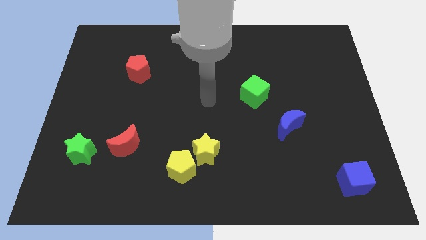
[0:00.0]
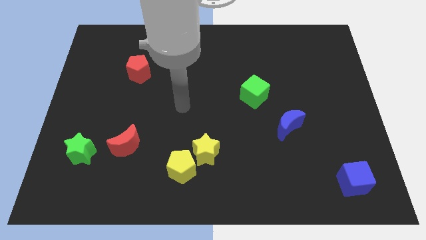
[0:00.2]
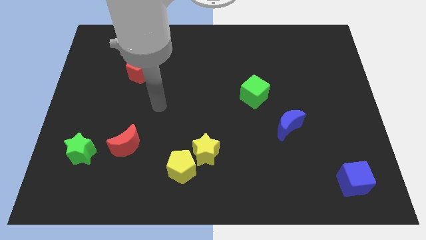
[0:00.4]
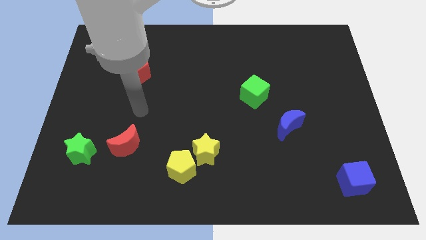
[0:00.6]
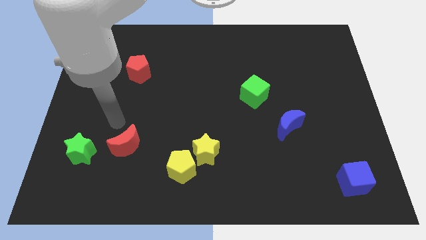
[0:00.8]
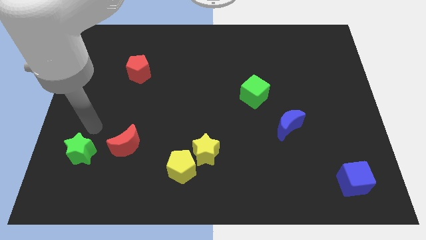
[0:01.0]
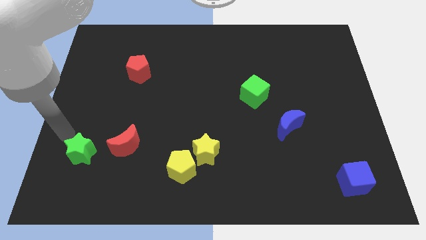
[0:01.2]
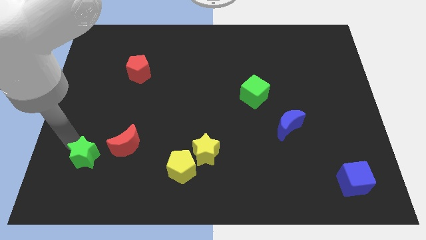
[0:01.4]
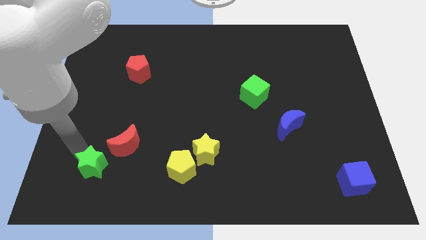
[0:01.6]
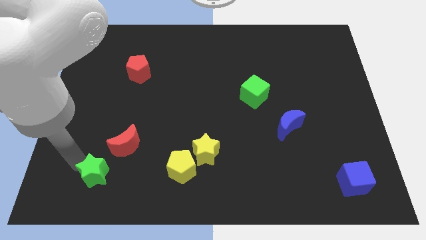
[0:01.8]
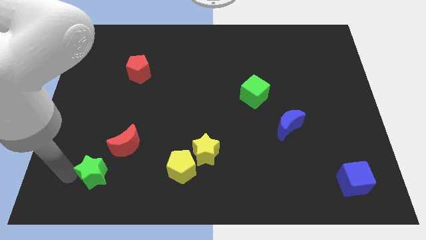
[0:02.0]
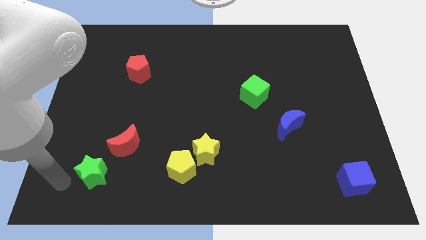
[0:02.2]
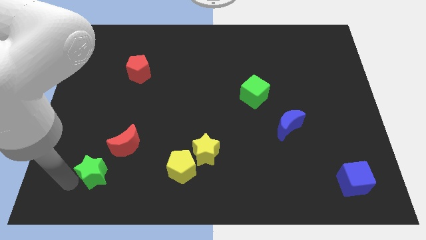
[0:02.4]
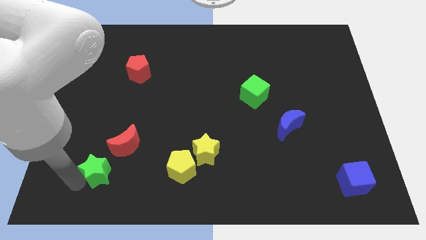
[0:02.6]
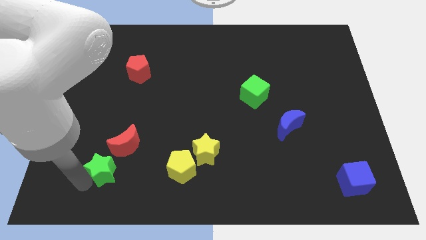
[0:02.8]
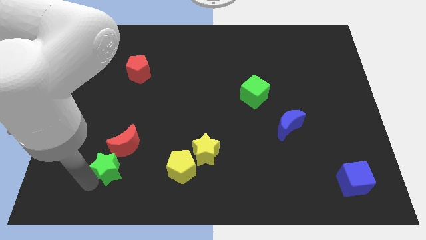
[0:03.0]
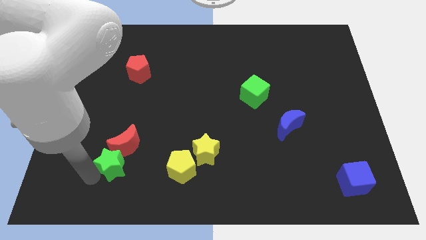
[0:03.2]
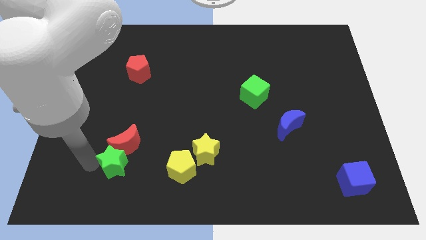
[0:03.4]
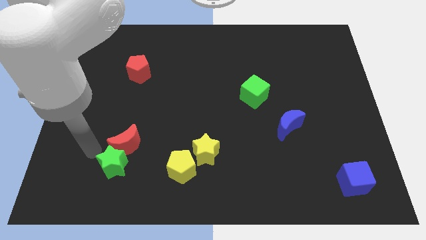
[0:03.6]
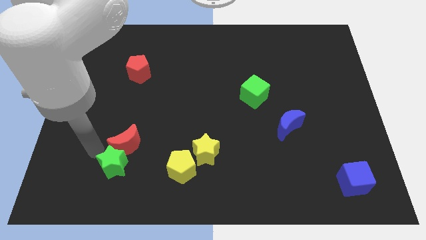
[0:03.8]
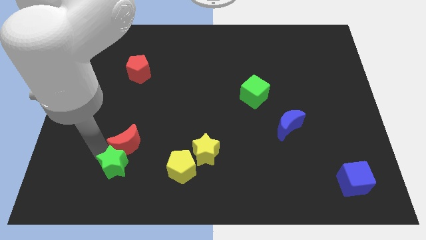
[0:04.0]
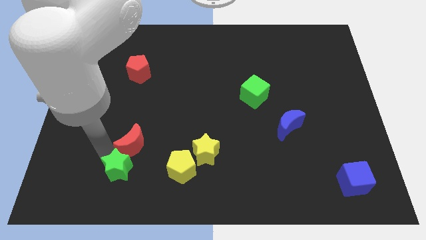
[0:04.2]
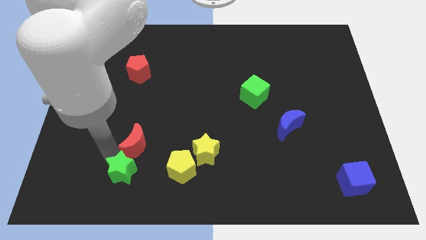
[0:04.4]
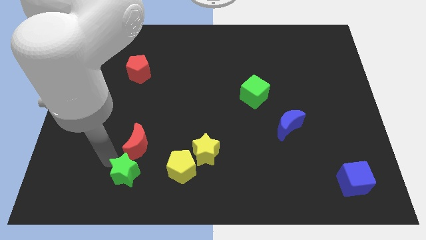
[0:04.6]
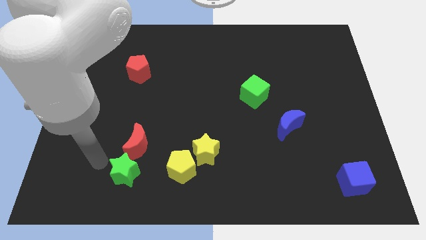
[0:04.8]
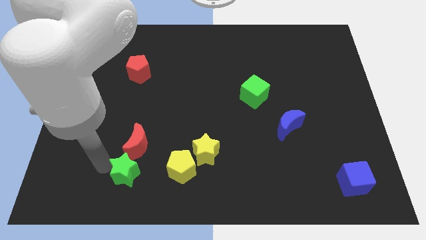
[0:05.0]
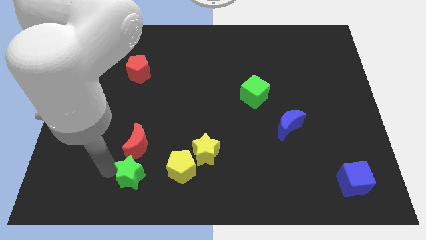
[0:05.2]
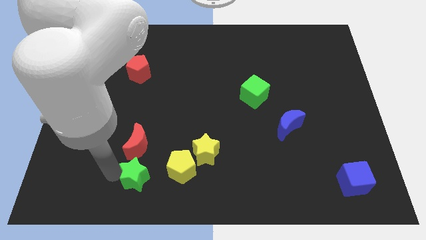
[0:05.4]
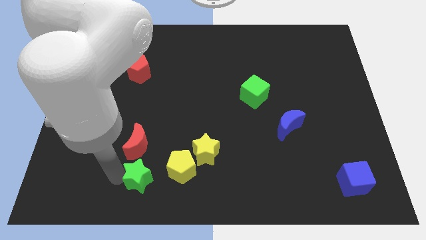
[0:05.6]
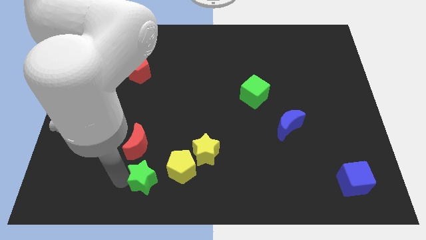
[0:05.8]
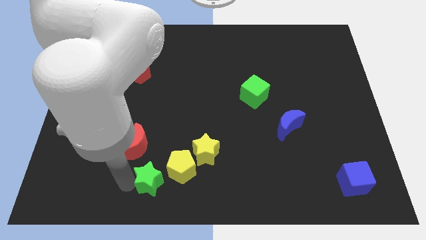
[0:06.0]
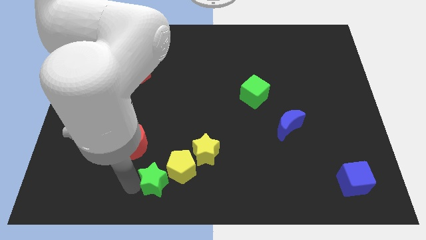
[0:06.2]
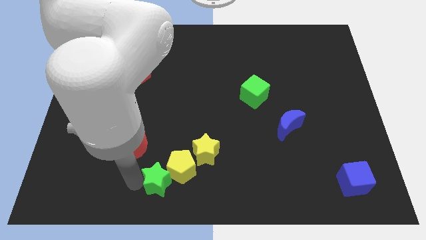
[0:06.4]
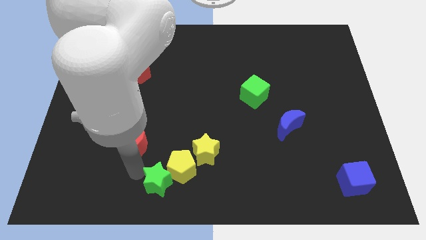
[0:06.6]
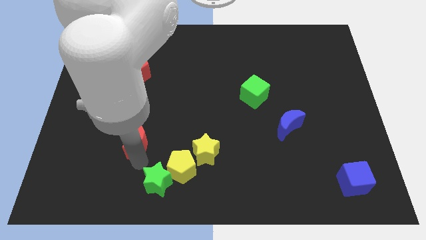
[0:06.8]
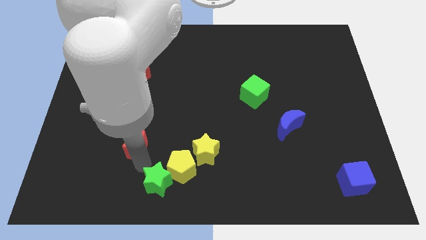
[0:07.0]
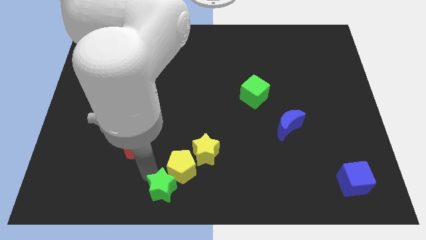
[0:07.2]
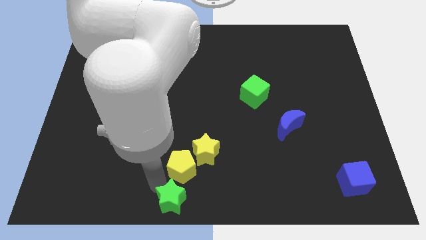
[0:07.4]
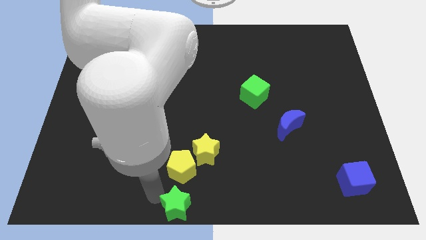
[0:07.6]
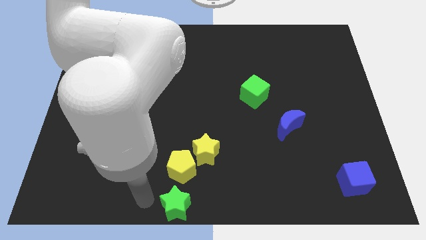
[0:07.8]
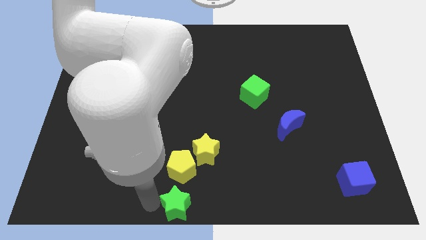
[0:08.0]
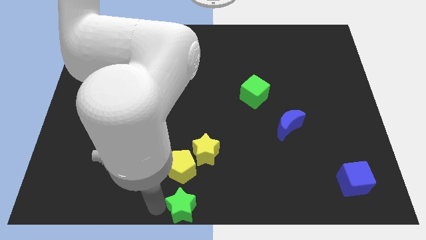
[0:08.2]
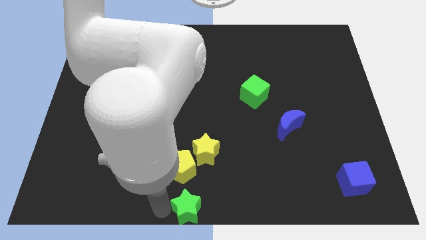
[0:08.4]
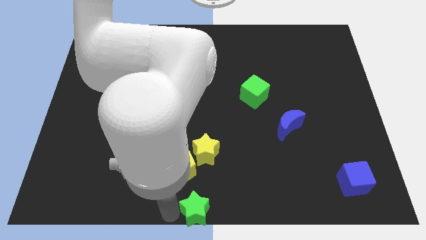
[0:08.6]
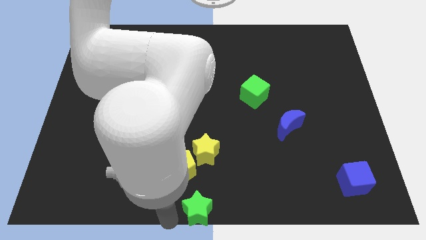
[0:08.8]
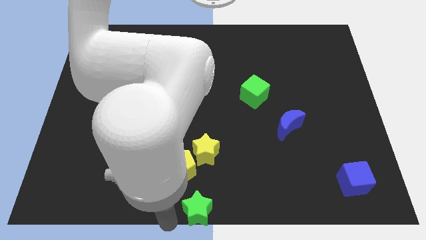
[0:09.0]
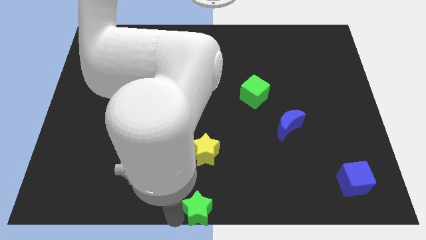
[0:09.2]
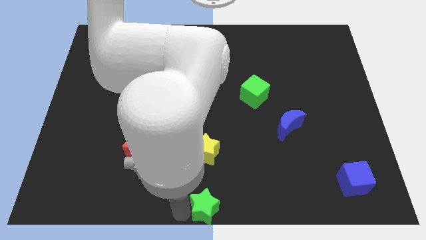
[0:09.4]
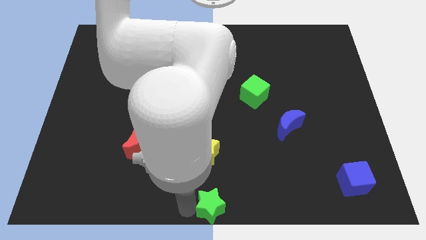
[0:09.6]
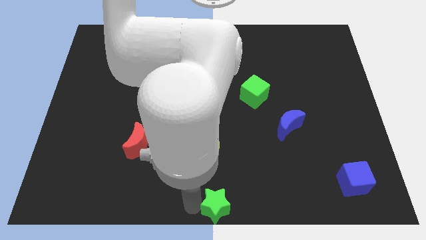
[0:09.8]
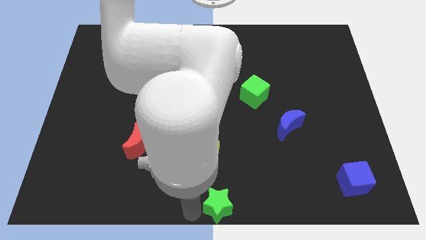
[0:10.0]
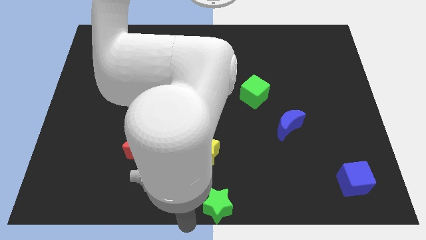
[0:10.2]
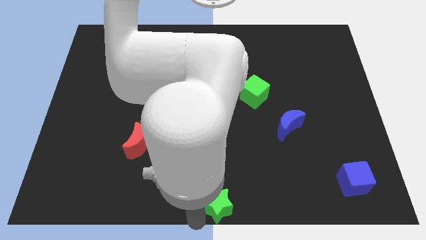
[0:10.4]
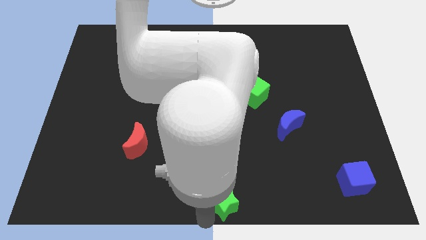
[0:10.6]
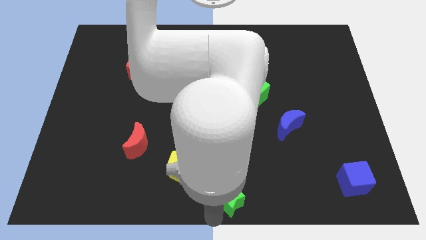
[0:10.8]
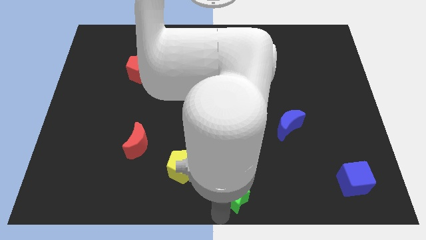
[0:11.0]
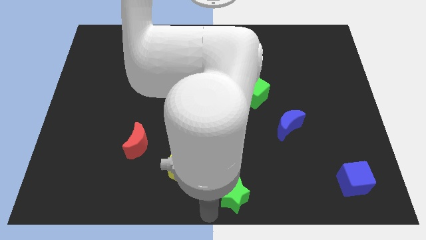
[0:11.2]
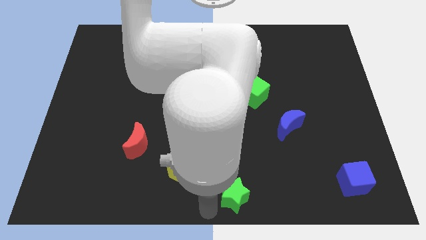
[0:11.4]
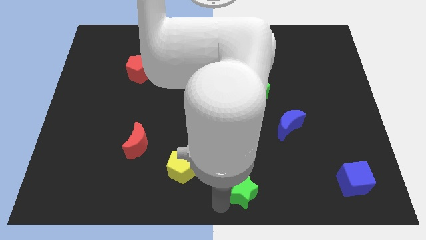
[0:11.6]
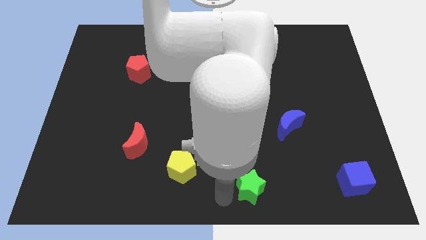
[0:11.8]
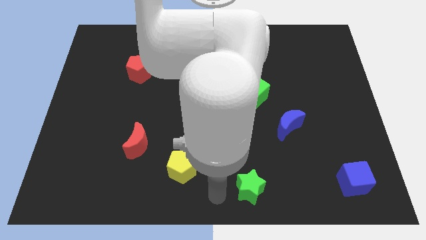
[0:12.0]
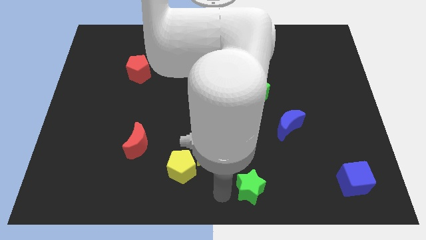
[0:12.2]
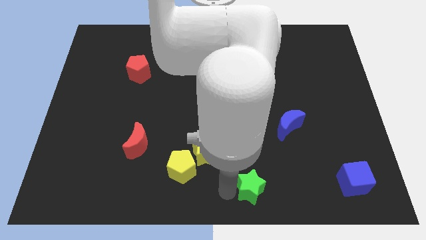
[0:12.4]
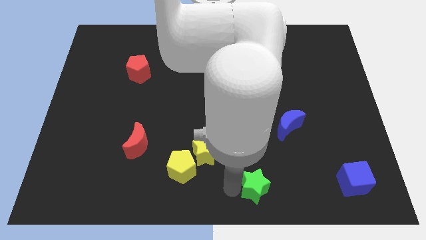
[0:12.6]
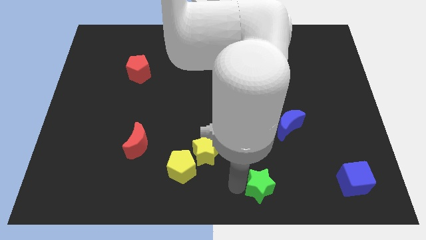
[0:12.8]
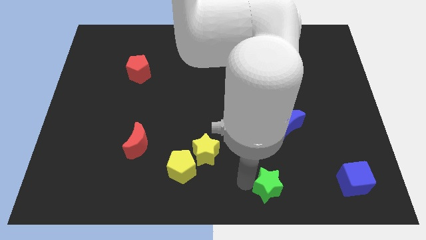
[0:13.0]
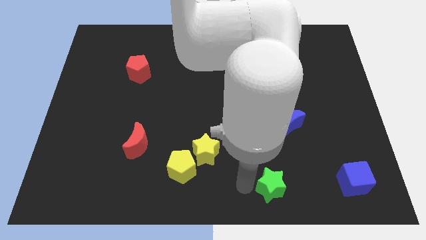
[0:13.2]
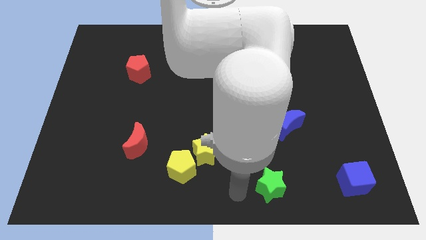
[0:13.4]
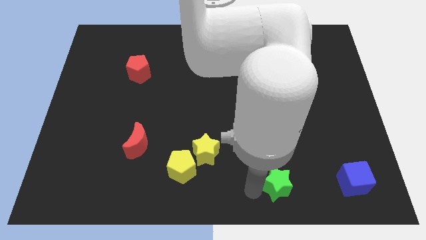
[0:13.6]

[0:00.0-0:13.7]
slide the green star left of the blue cube
